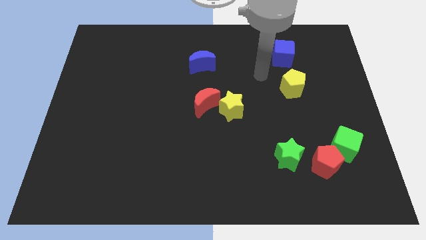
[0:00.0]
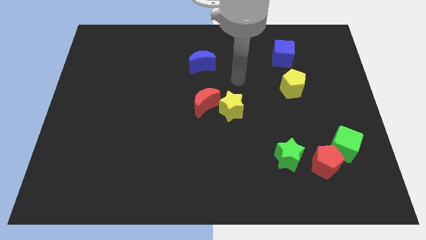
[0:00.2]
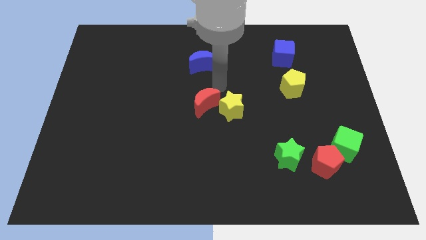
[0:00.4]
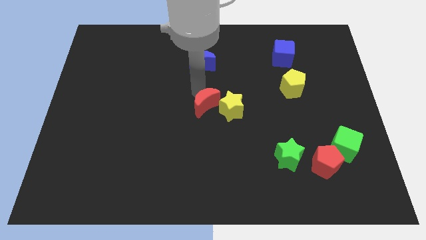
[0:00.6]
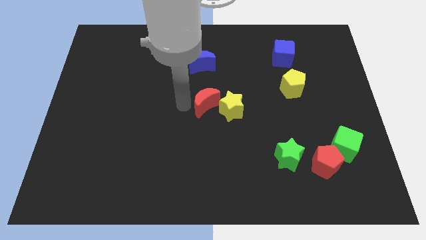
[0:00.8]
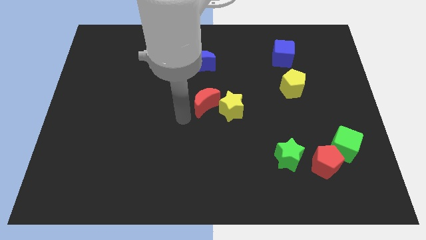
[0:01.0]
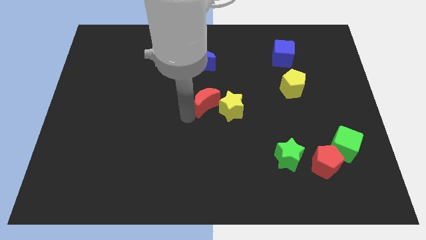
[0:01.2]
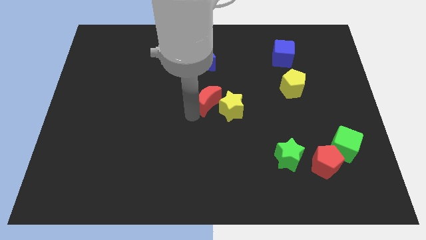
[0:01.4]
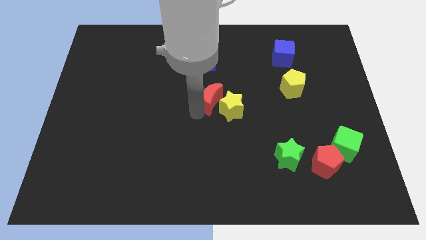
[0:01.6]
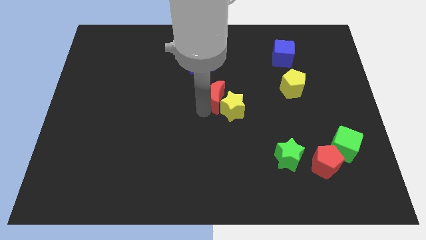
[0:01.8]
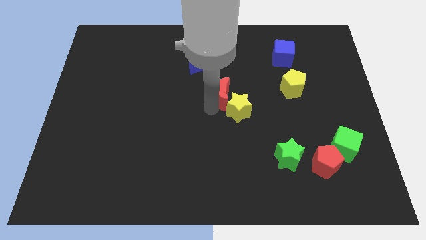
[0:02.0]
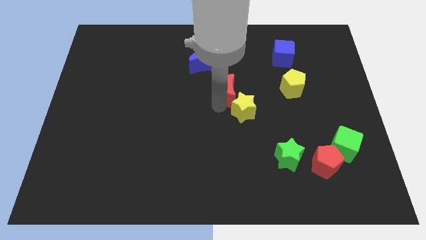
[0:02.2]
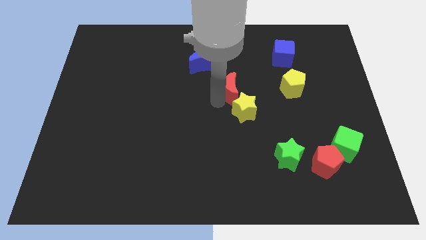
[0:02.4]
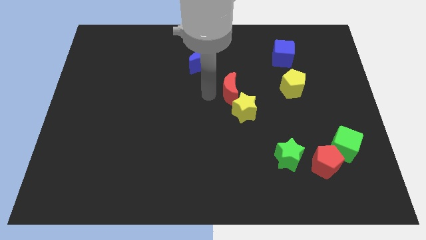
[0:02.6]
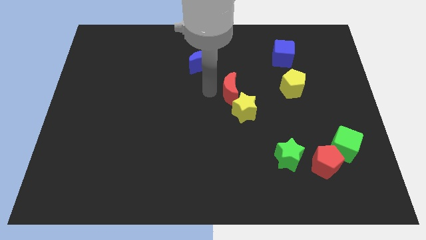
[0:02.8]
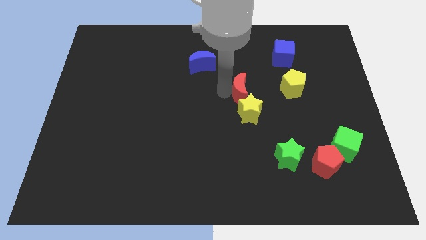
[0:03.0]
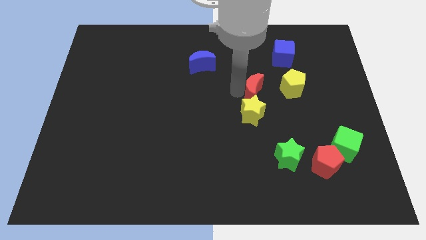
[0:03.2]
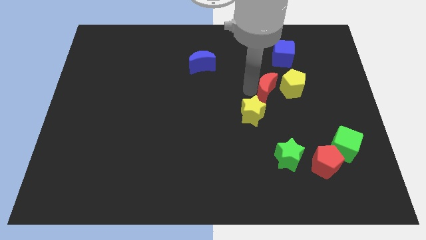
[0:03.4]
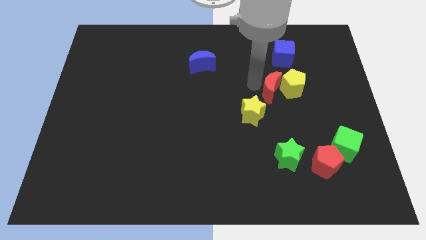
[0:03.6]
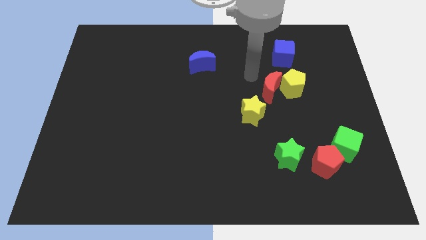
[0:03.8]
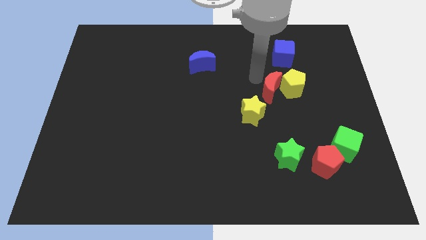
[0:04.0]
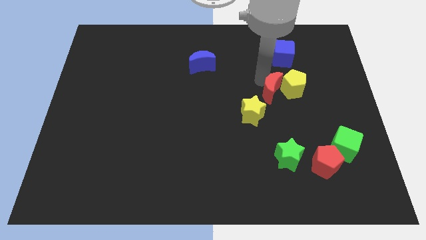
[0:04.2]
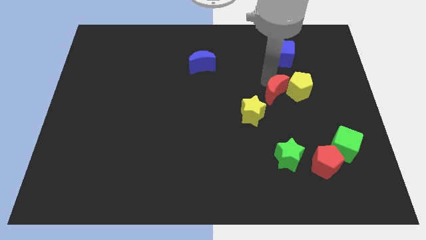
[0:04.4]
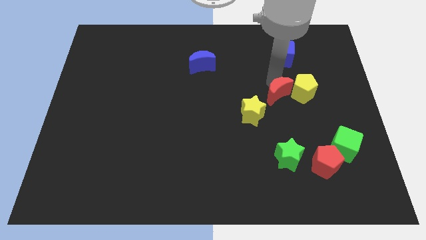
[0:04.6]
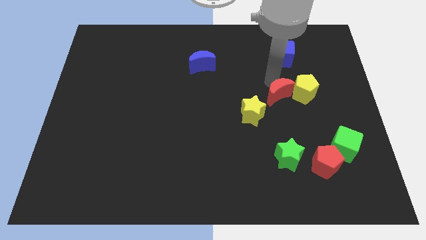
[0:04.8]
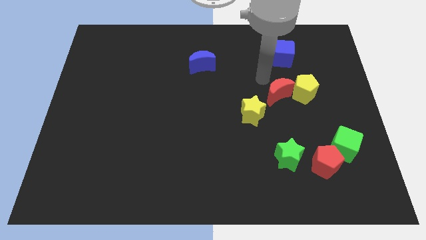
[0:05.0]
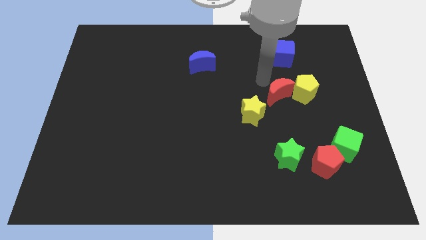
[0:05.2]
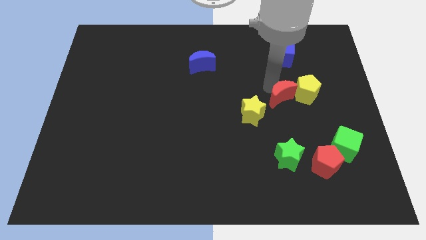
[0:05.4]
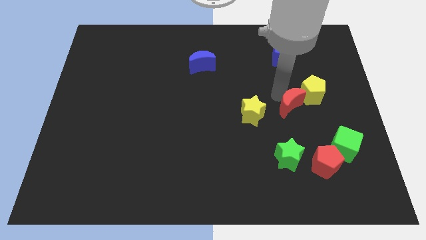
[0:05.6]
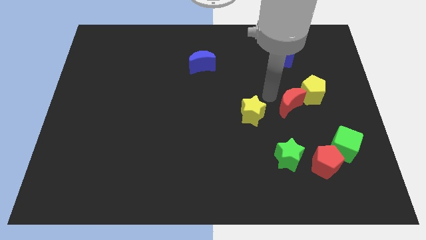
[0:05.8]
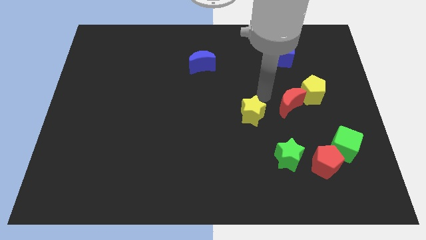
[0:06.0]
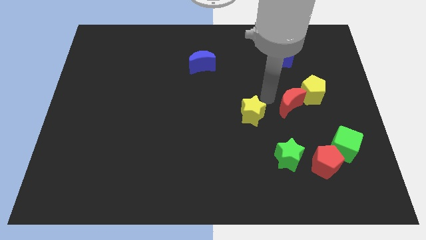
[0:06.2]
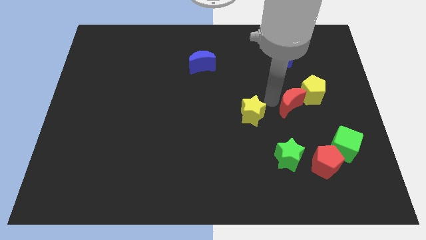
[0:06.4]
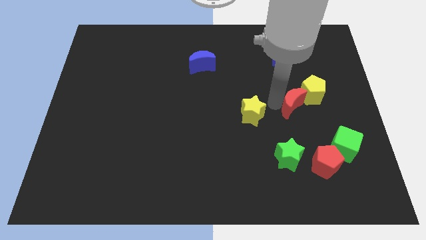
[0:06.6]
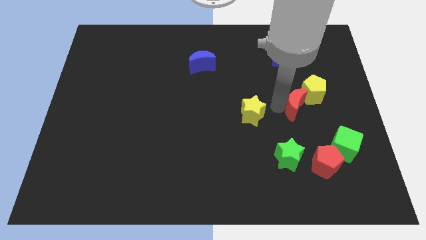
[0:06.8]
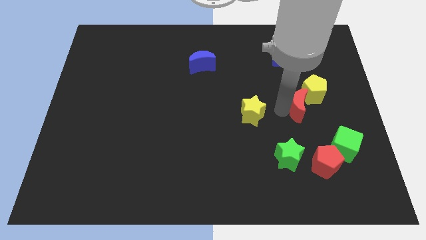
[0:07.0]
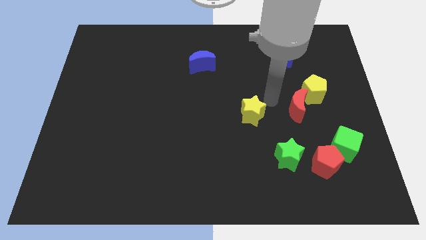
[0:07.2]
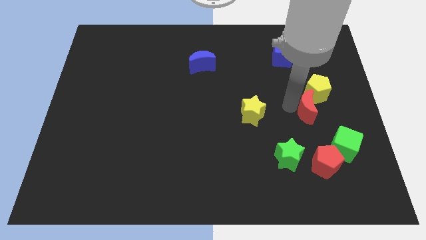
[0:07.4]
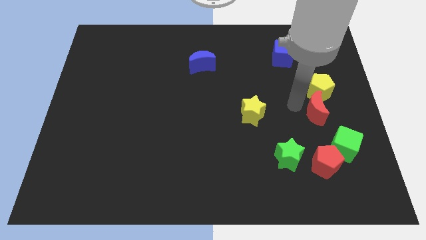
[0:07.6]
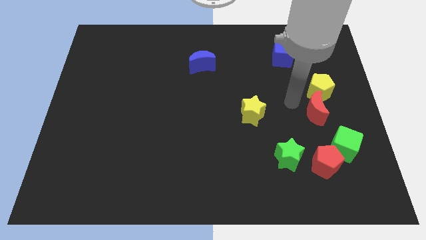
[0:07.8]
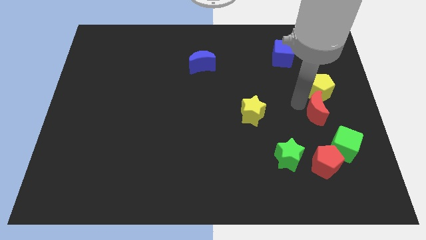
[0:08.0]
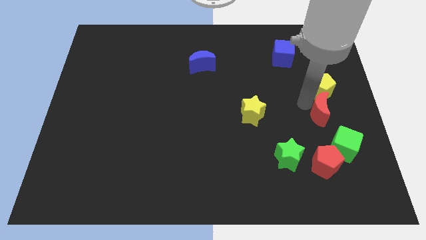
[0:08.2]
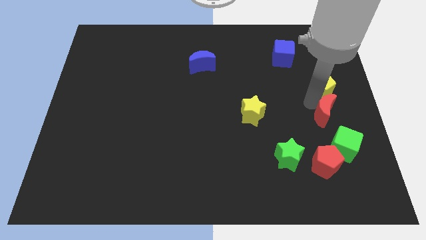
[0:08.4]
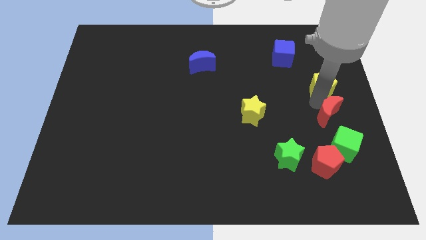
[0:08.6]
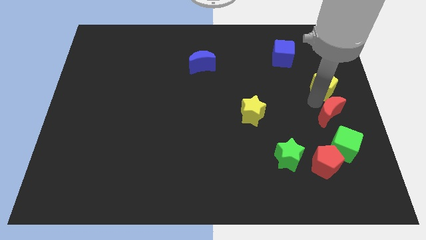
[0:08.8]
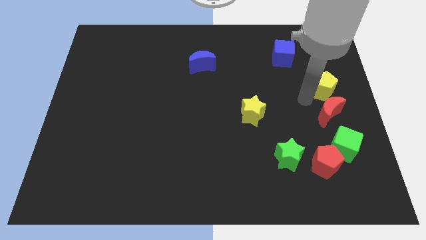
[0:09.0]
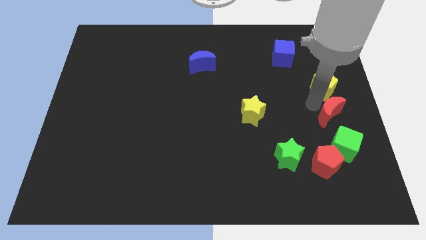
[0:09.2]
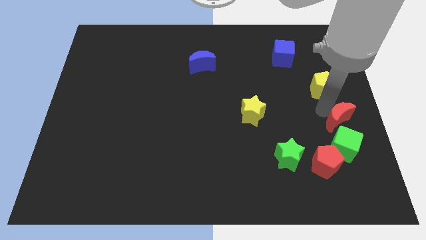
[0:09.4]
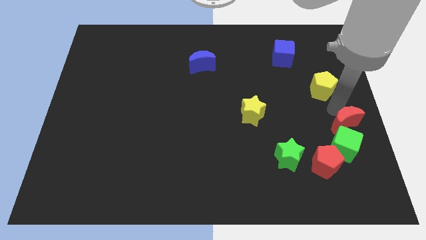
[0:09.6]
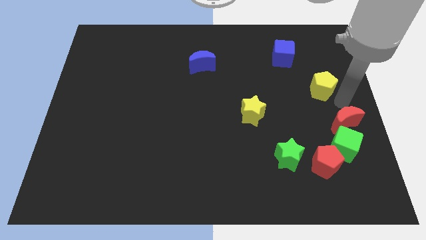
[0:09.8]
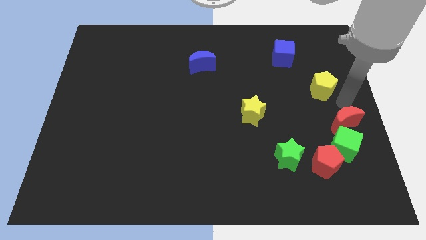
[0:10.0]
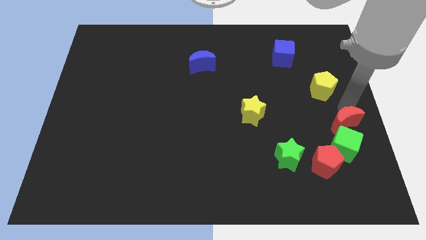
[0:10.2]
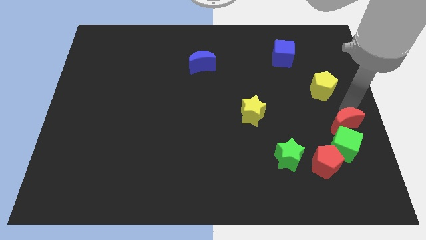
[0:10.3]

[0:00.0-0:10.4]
slide the red moon diagonally up and to the right of the red pentagon

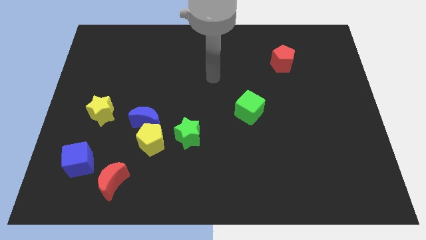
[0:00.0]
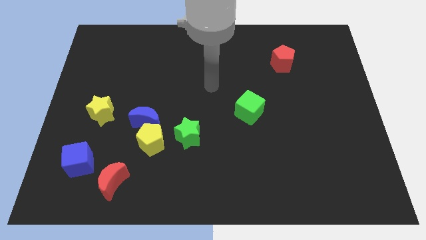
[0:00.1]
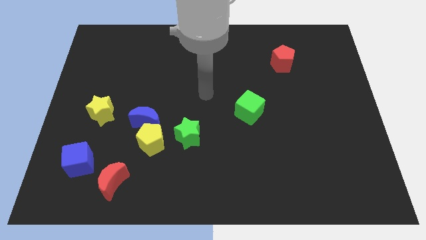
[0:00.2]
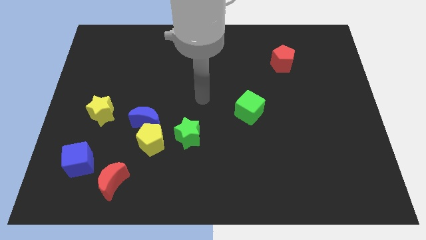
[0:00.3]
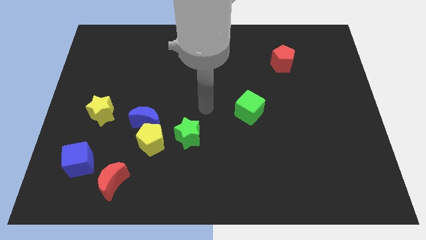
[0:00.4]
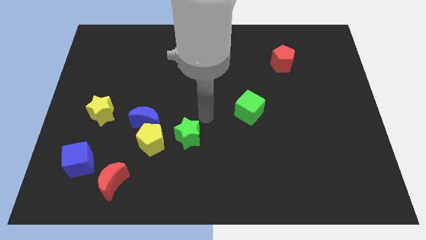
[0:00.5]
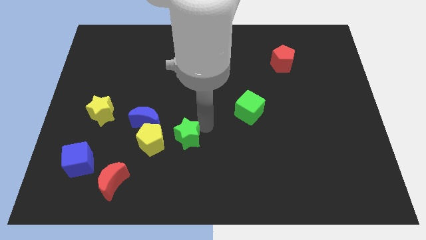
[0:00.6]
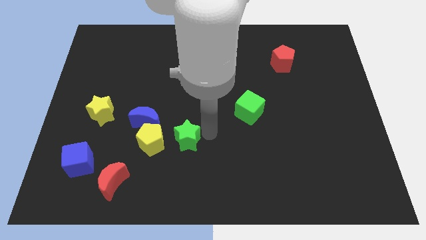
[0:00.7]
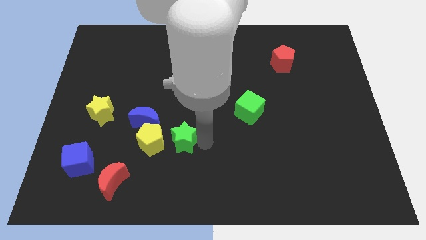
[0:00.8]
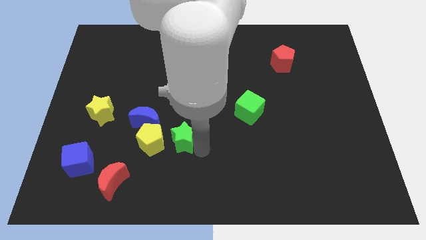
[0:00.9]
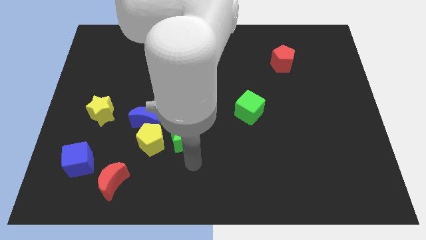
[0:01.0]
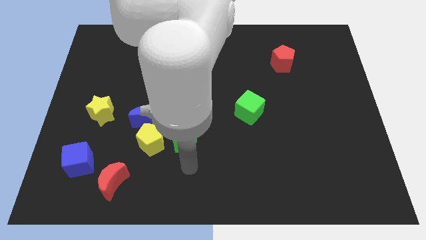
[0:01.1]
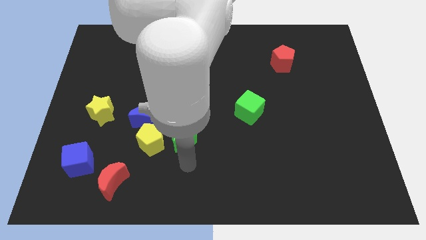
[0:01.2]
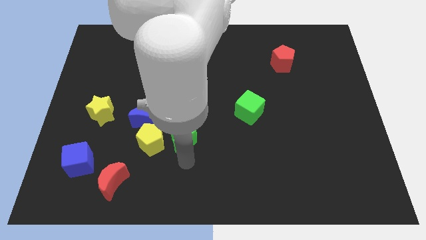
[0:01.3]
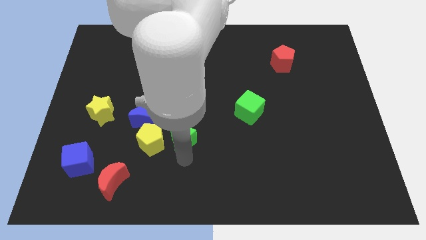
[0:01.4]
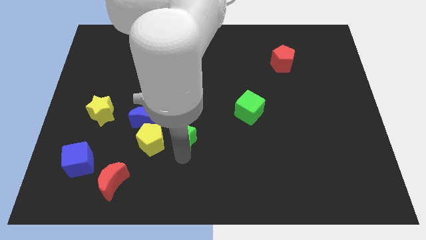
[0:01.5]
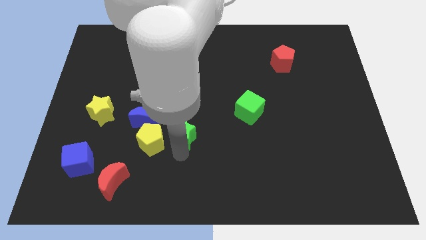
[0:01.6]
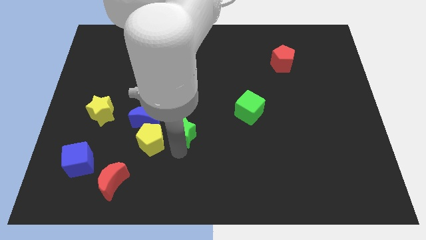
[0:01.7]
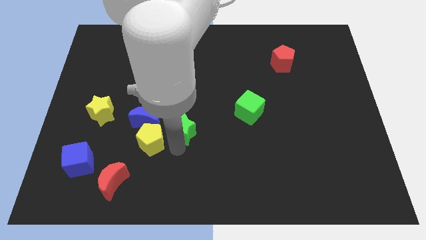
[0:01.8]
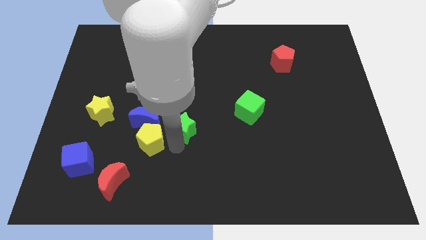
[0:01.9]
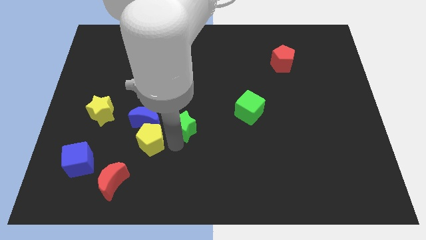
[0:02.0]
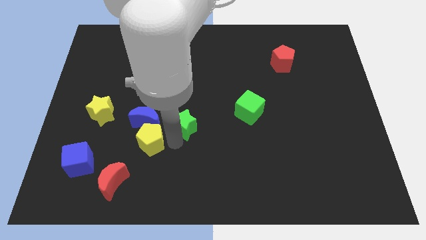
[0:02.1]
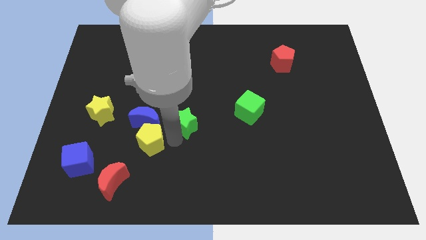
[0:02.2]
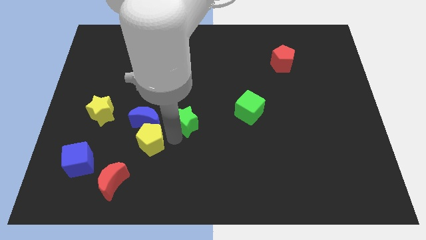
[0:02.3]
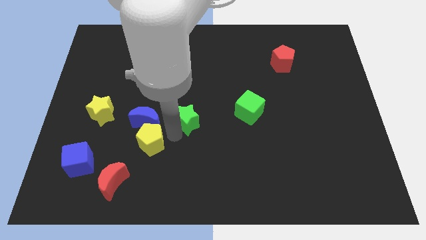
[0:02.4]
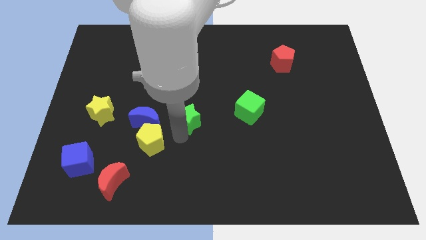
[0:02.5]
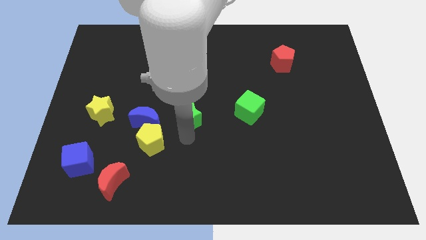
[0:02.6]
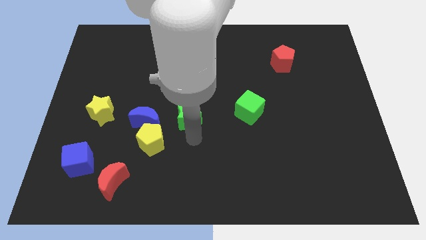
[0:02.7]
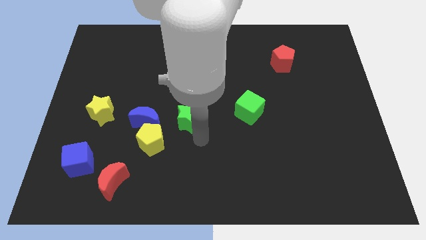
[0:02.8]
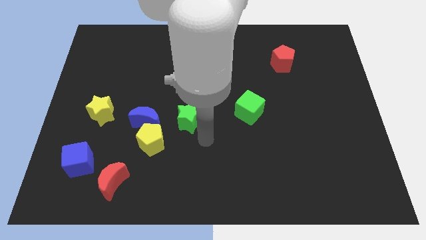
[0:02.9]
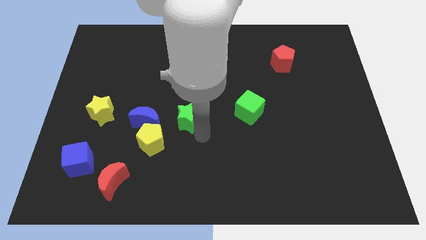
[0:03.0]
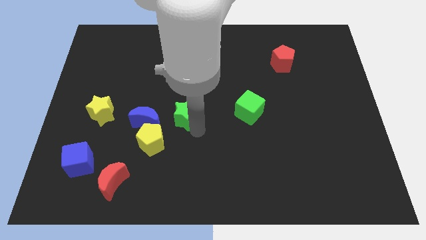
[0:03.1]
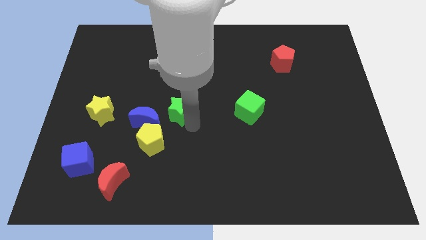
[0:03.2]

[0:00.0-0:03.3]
move the green star diagonally up and to the right of the blue moon
